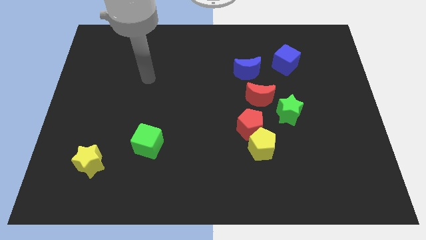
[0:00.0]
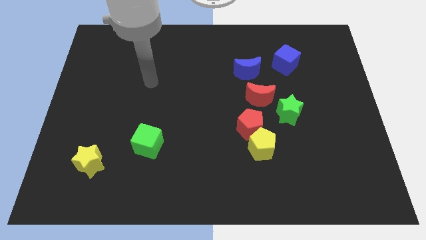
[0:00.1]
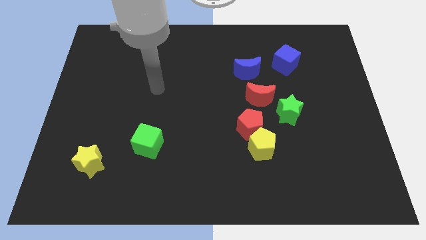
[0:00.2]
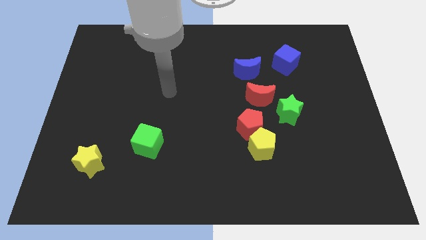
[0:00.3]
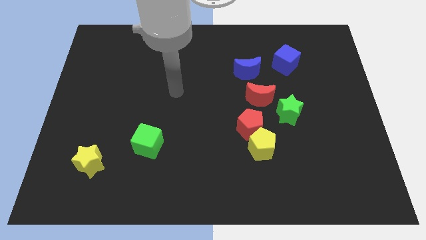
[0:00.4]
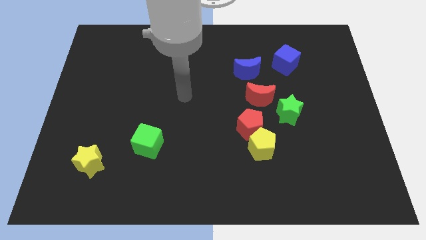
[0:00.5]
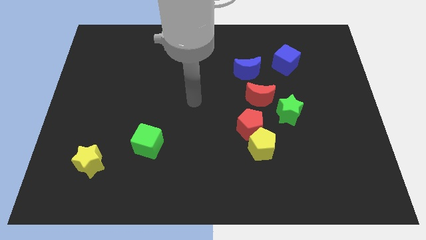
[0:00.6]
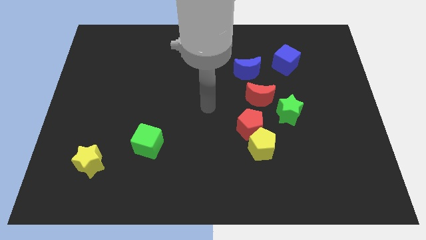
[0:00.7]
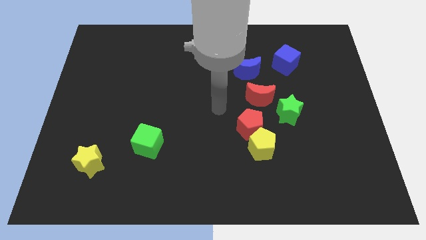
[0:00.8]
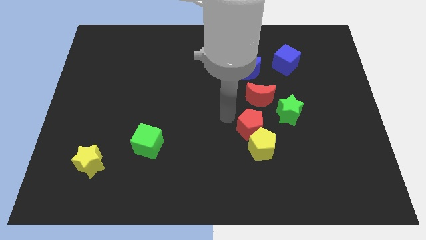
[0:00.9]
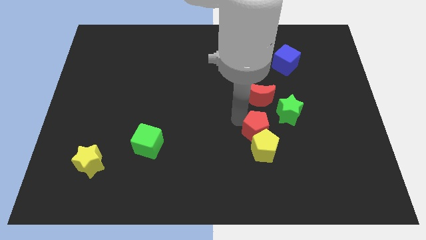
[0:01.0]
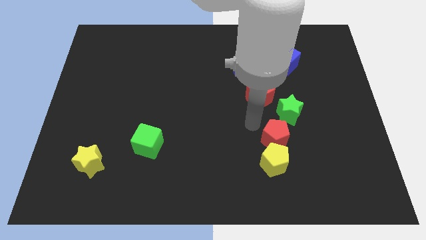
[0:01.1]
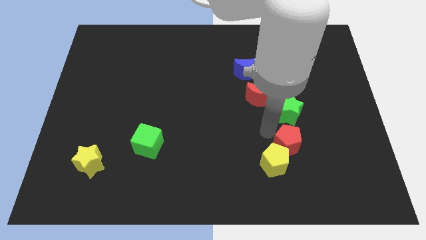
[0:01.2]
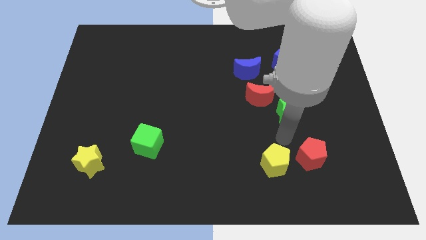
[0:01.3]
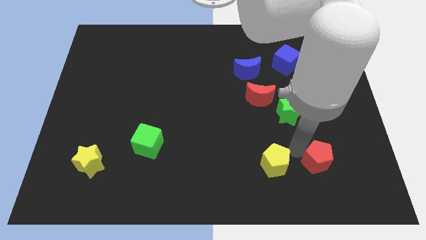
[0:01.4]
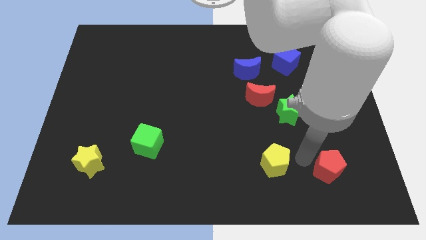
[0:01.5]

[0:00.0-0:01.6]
pull the yellow pentagon apart from the red pentagon

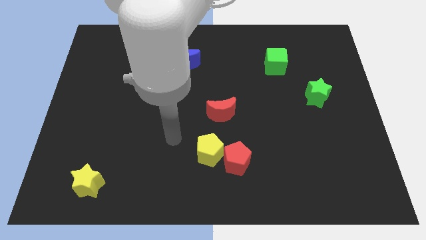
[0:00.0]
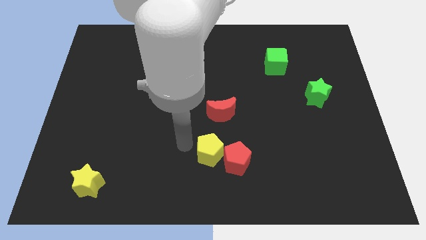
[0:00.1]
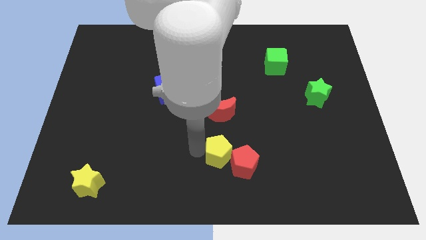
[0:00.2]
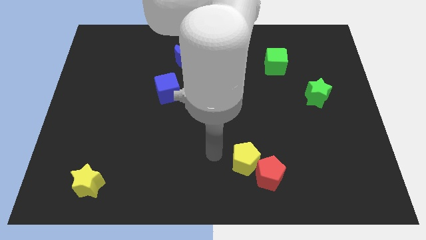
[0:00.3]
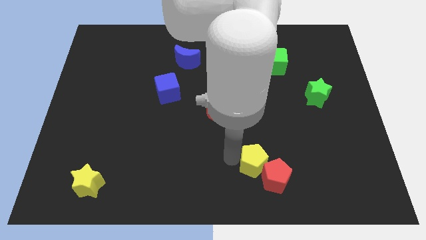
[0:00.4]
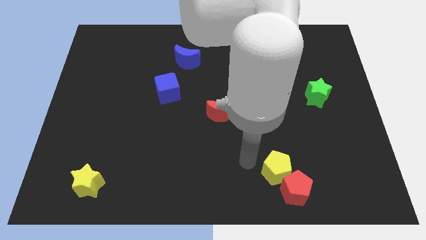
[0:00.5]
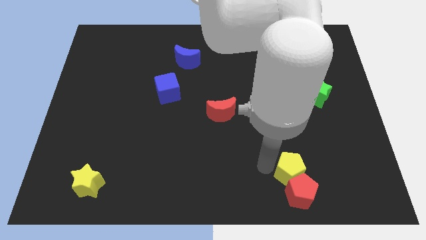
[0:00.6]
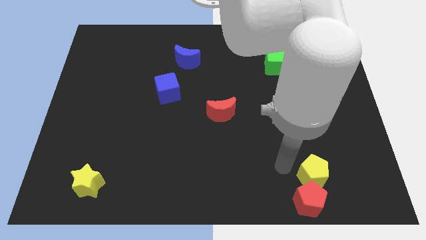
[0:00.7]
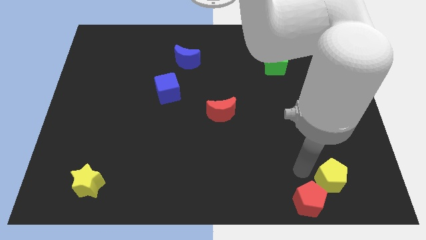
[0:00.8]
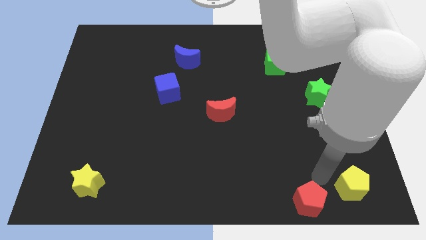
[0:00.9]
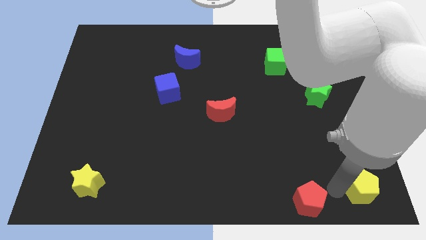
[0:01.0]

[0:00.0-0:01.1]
separate the red pentagon from the yellow pentagon

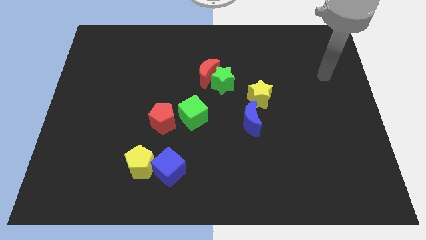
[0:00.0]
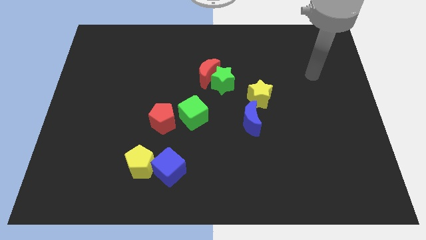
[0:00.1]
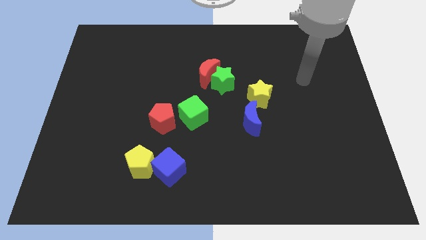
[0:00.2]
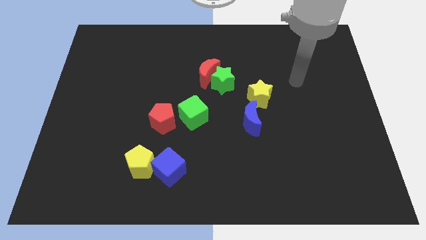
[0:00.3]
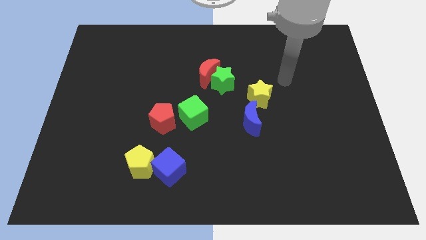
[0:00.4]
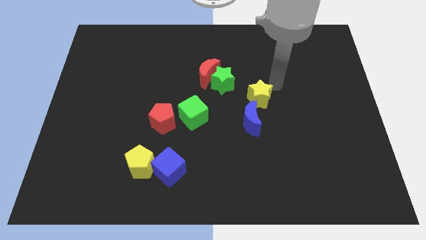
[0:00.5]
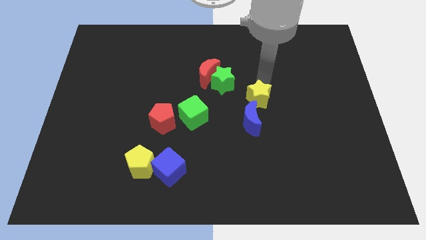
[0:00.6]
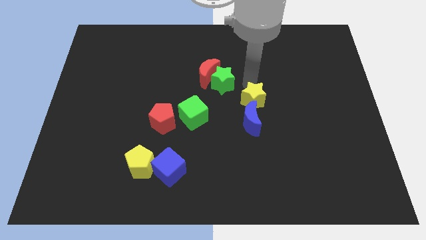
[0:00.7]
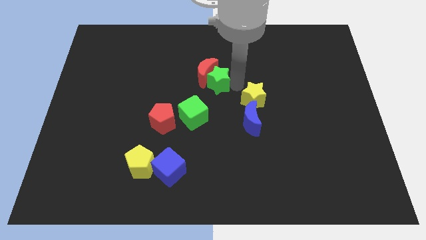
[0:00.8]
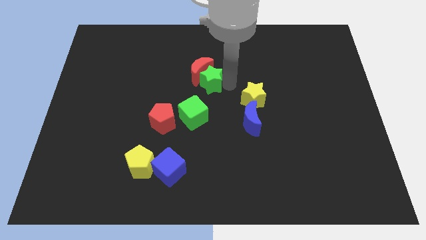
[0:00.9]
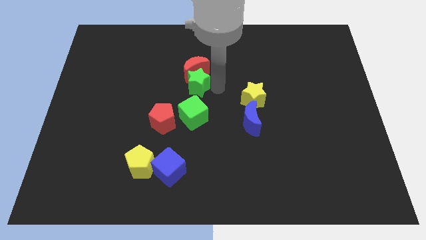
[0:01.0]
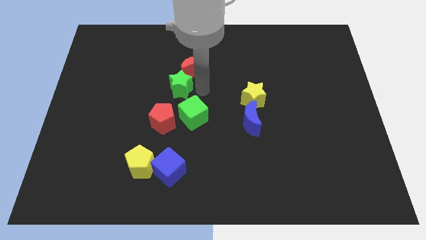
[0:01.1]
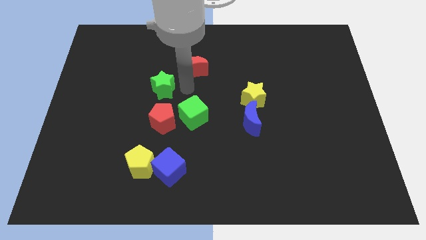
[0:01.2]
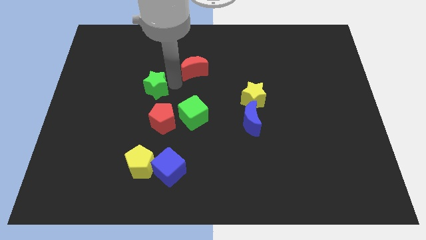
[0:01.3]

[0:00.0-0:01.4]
separate the red moon from the green star

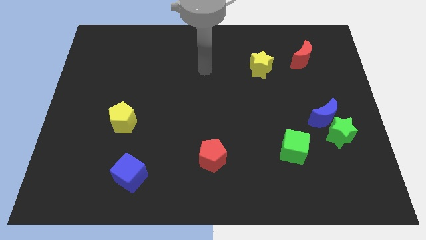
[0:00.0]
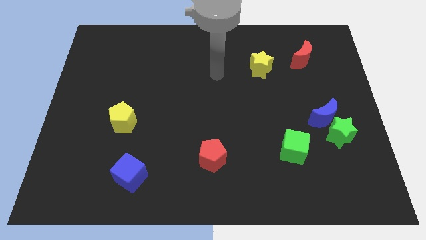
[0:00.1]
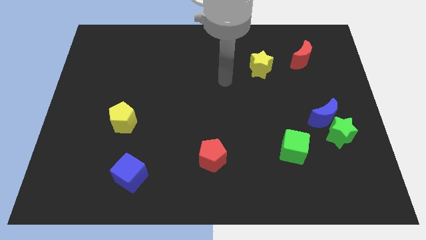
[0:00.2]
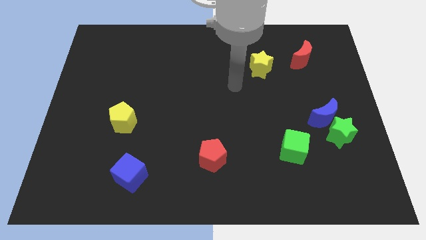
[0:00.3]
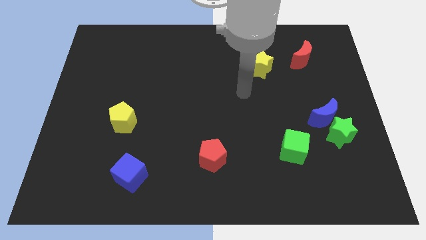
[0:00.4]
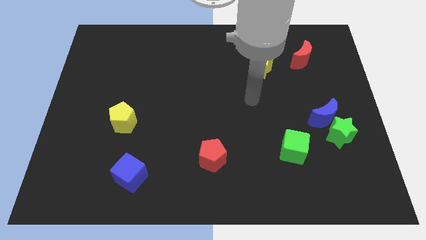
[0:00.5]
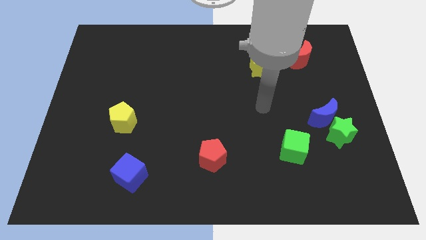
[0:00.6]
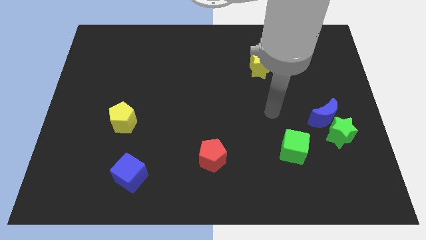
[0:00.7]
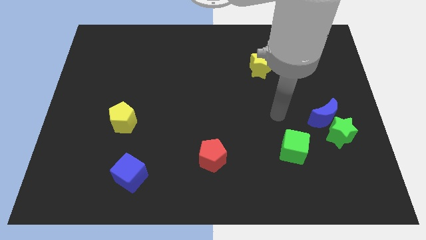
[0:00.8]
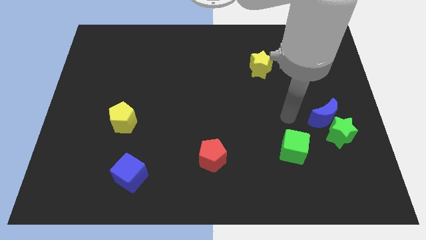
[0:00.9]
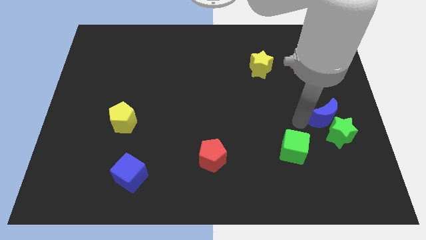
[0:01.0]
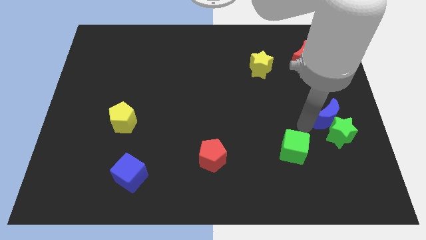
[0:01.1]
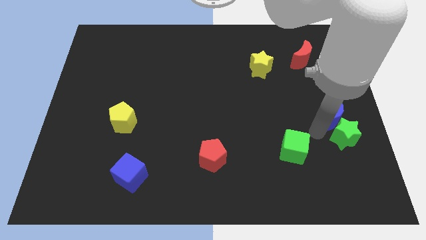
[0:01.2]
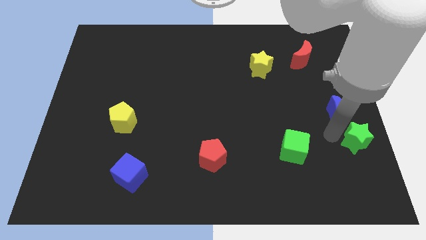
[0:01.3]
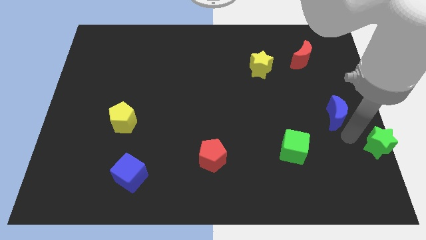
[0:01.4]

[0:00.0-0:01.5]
pull the blue moon apart from the green star

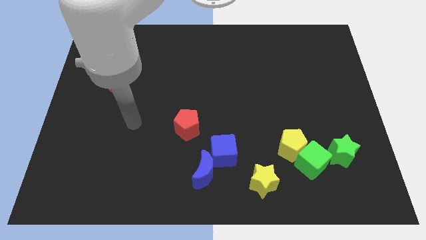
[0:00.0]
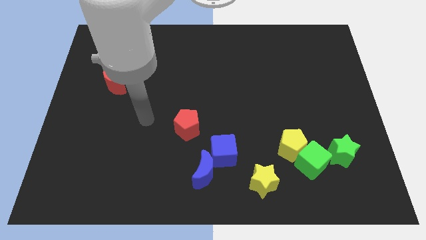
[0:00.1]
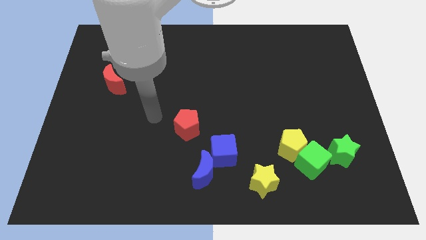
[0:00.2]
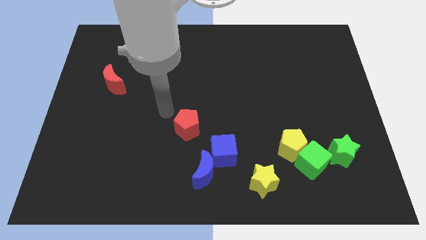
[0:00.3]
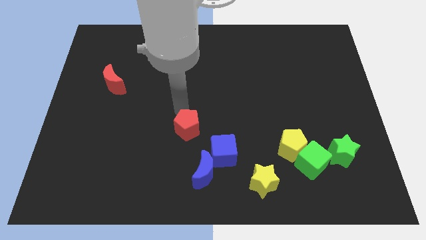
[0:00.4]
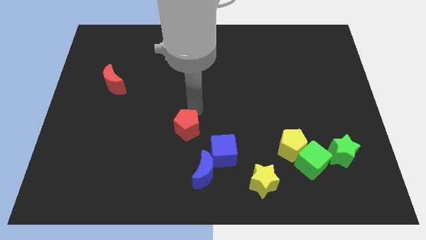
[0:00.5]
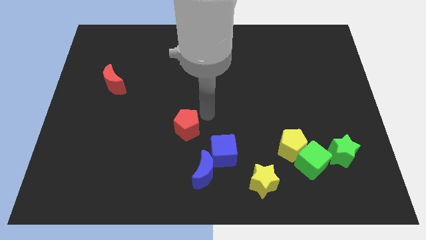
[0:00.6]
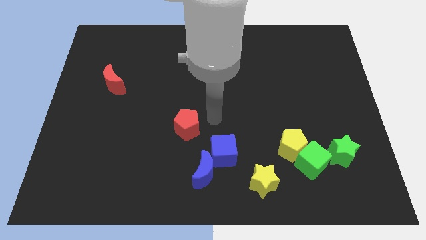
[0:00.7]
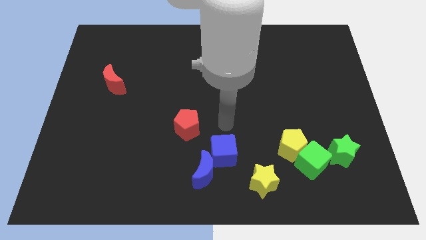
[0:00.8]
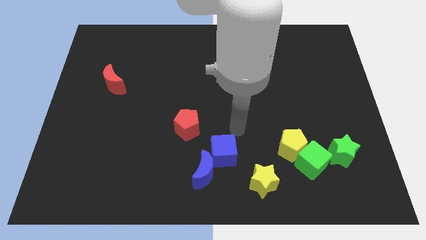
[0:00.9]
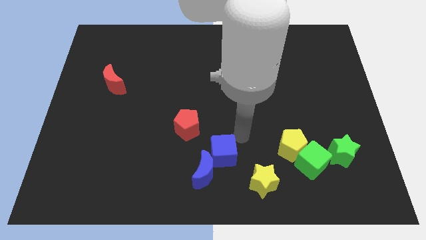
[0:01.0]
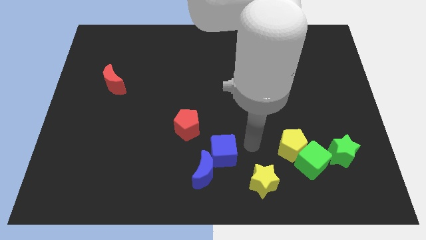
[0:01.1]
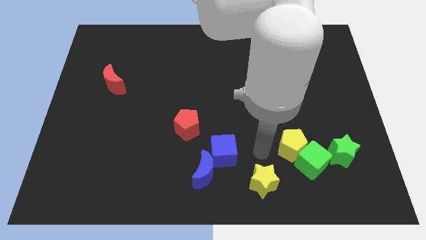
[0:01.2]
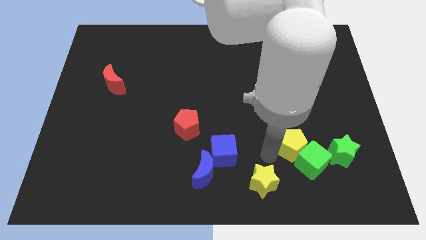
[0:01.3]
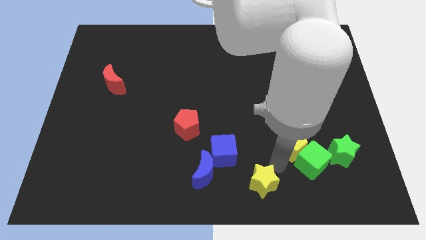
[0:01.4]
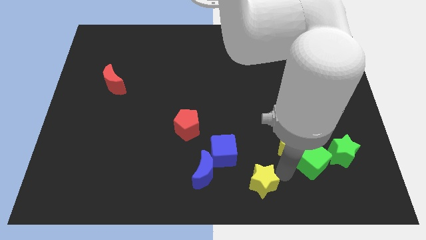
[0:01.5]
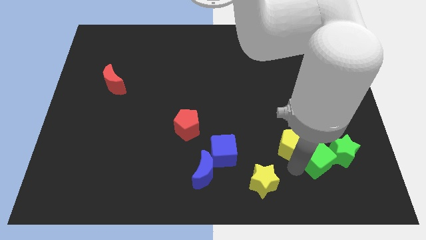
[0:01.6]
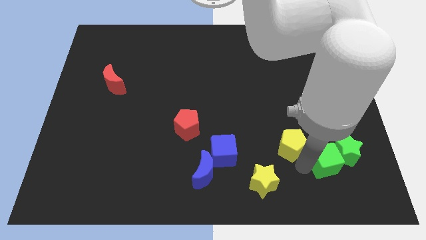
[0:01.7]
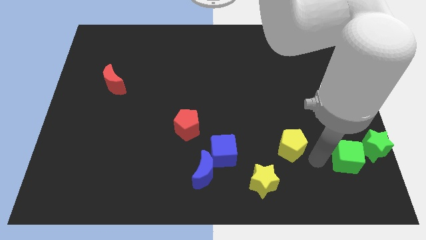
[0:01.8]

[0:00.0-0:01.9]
move the yellow pentagon away from the green cube

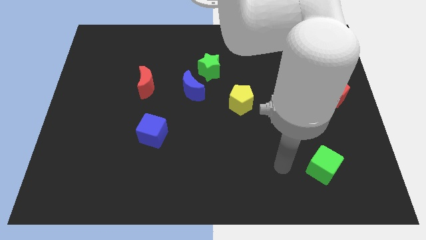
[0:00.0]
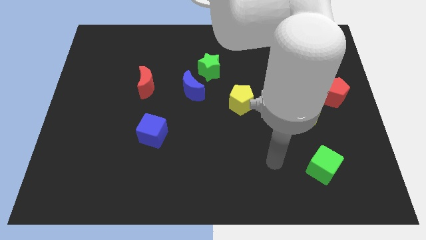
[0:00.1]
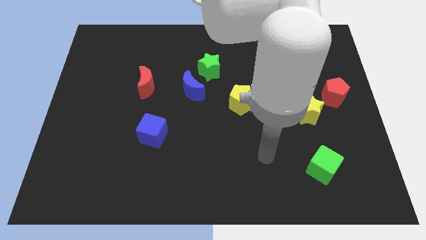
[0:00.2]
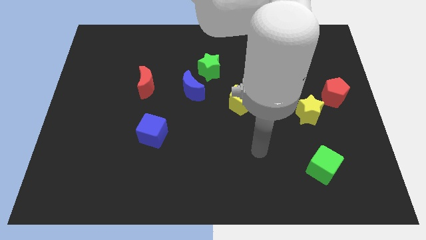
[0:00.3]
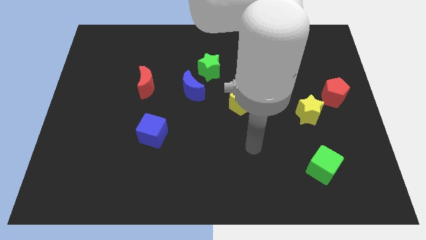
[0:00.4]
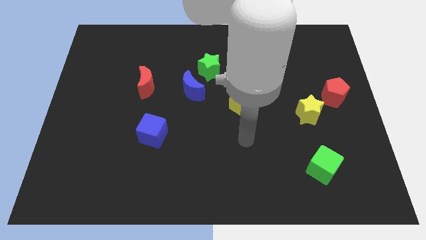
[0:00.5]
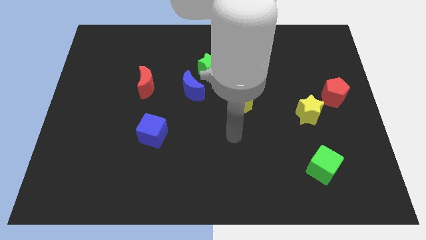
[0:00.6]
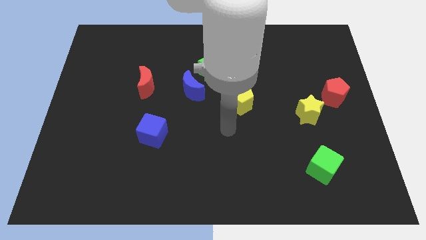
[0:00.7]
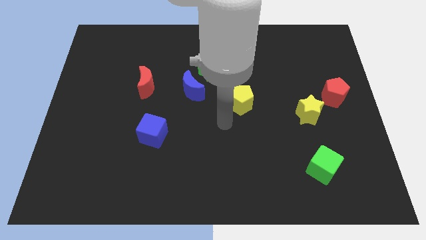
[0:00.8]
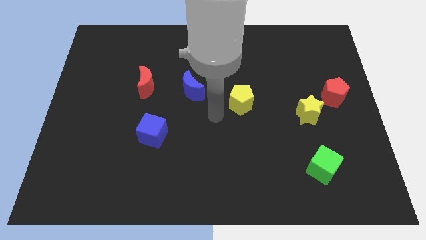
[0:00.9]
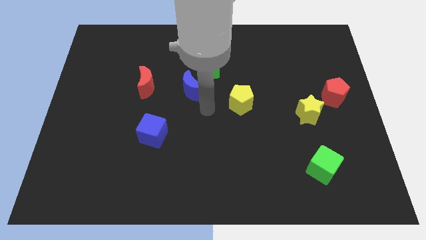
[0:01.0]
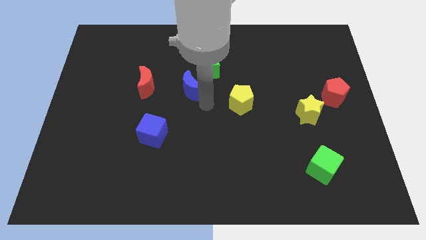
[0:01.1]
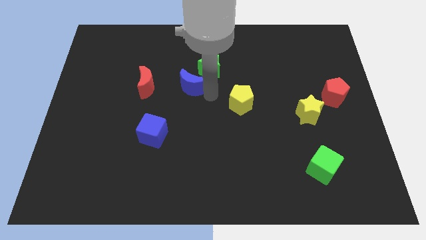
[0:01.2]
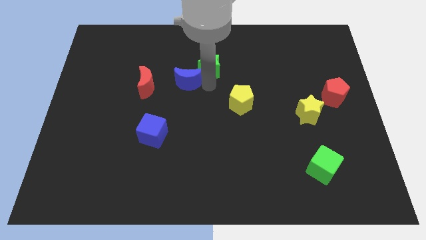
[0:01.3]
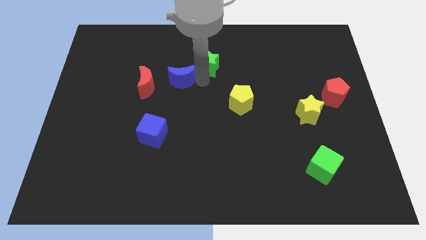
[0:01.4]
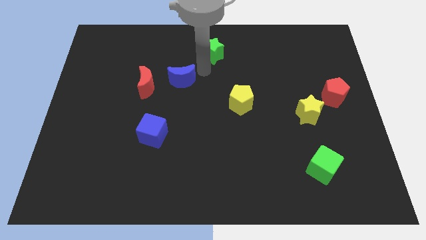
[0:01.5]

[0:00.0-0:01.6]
separate the blue moon from the green star

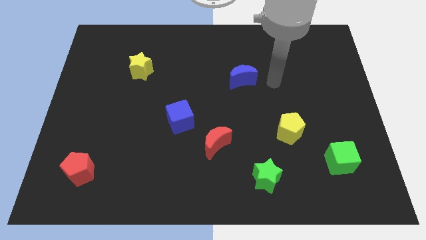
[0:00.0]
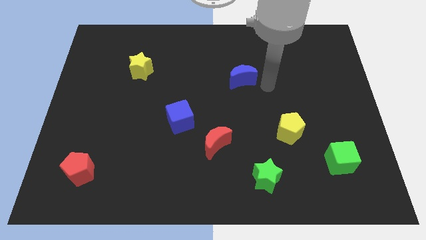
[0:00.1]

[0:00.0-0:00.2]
pull the red moon apart from the blue cube
